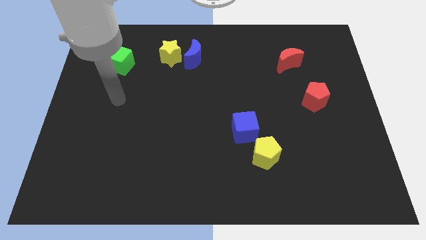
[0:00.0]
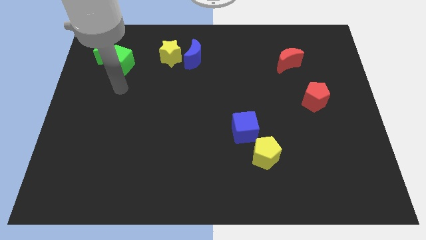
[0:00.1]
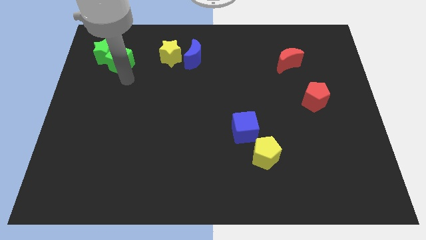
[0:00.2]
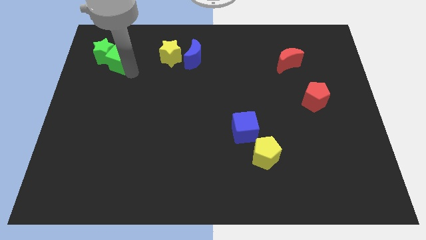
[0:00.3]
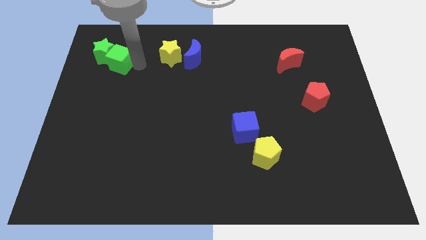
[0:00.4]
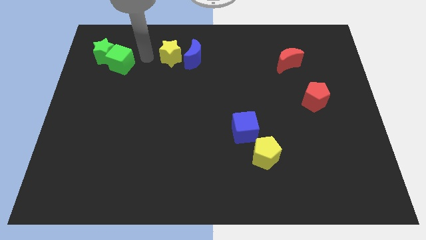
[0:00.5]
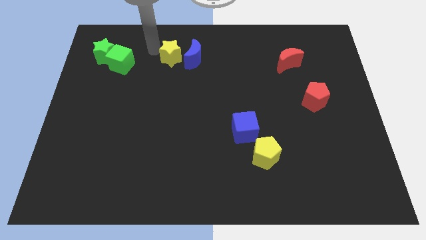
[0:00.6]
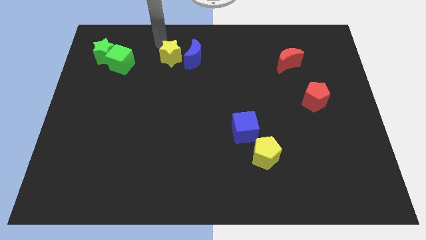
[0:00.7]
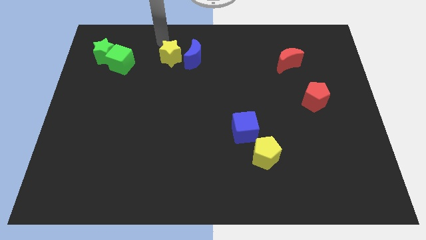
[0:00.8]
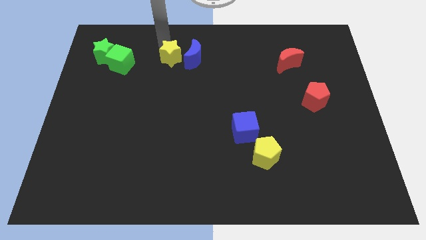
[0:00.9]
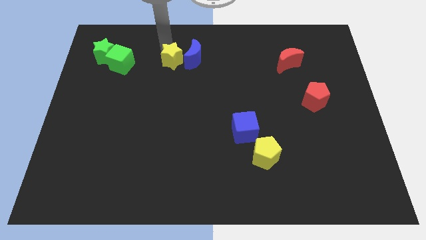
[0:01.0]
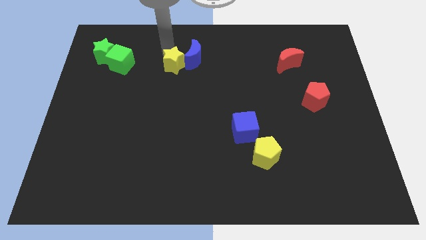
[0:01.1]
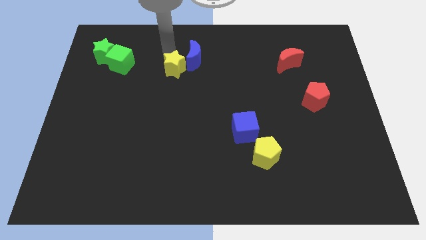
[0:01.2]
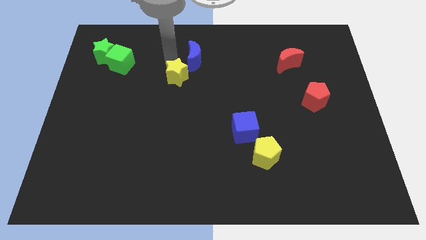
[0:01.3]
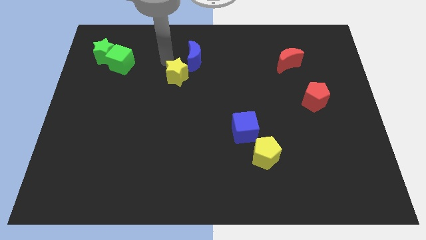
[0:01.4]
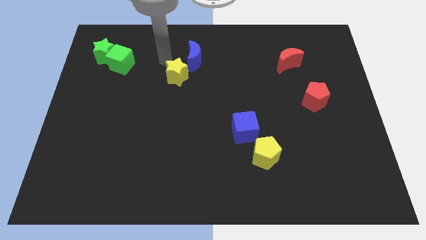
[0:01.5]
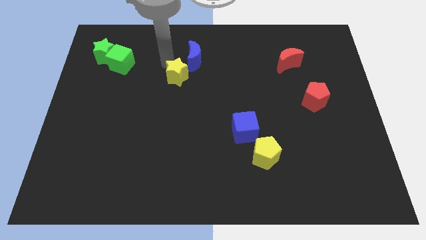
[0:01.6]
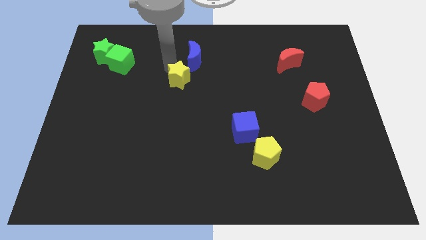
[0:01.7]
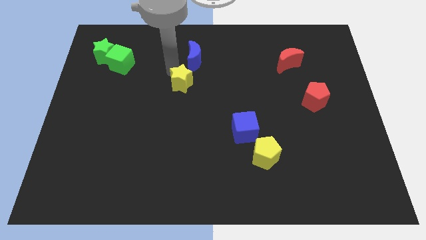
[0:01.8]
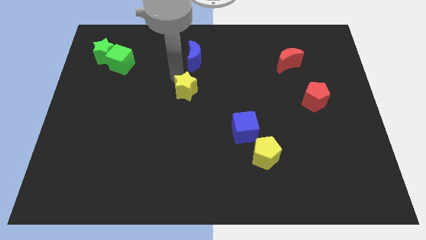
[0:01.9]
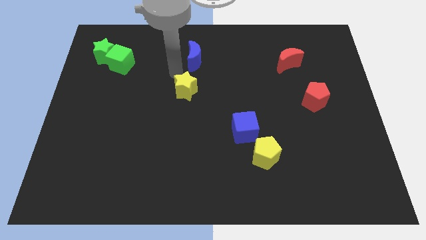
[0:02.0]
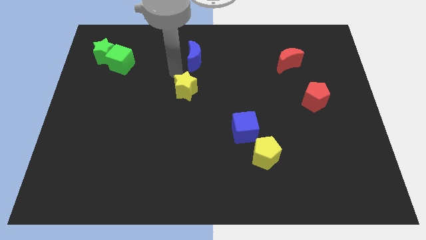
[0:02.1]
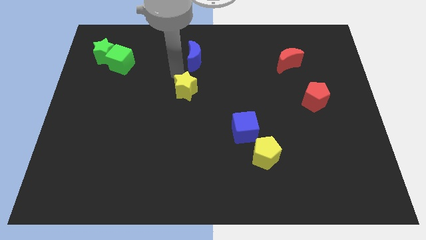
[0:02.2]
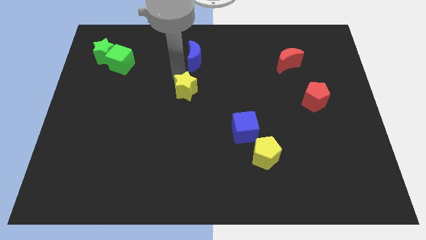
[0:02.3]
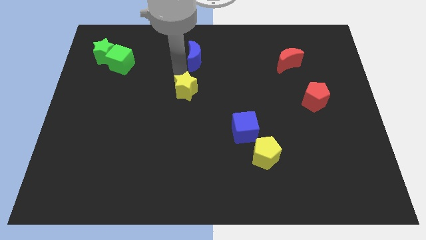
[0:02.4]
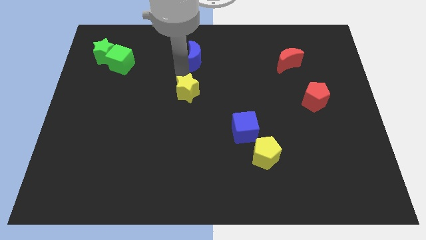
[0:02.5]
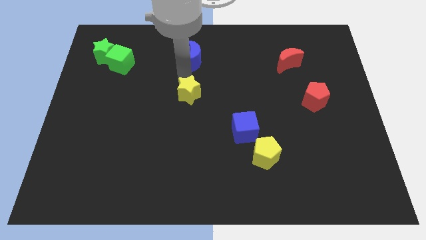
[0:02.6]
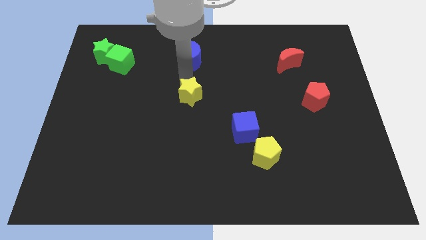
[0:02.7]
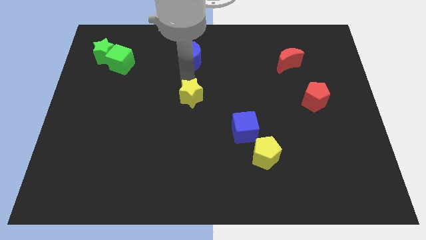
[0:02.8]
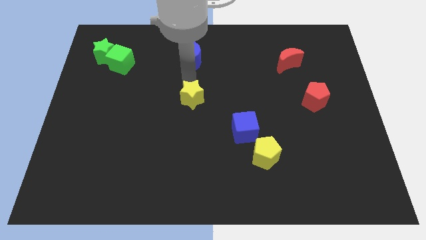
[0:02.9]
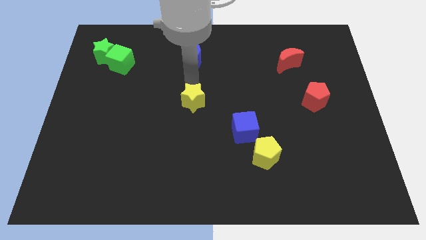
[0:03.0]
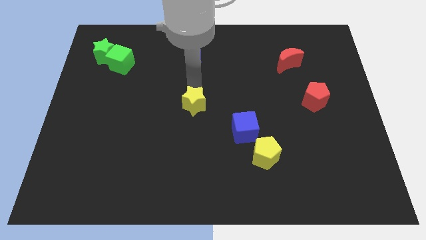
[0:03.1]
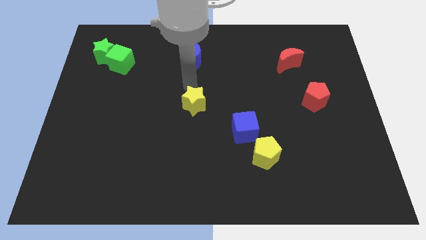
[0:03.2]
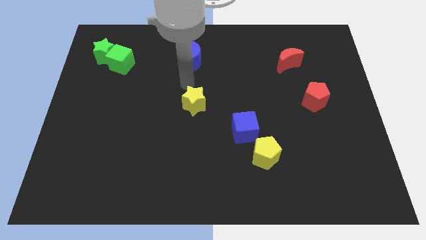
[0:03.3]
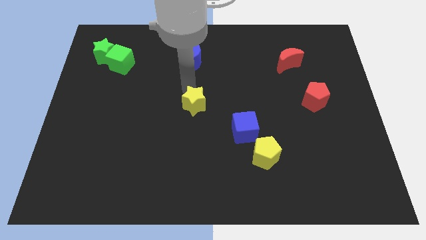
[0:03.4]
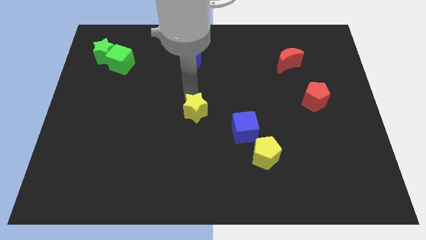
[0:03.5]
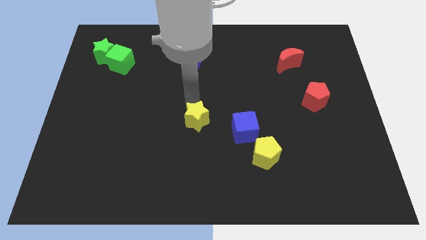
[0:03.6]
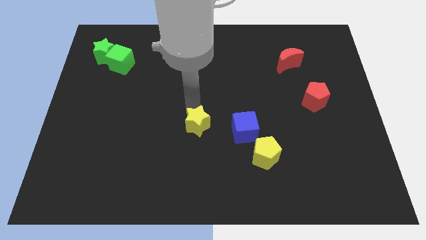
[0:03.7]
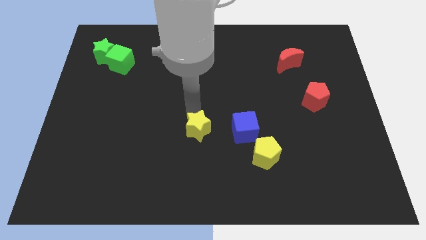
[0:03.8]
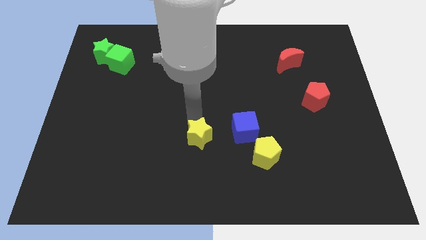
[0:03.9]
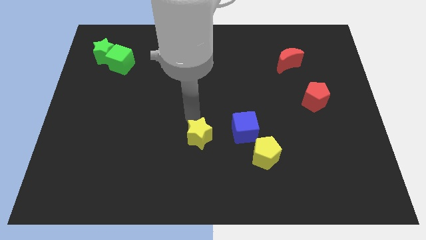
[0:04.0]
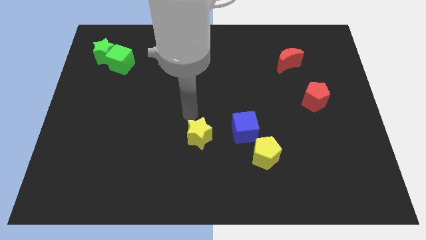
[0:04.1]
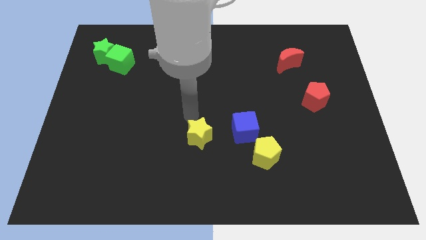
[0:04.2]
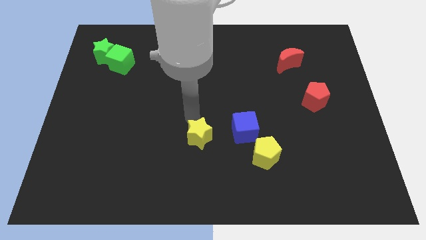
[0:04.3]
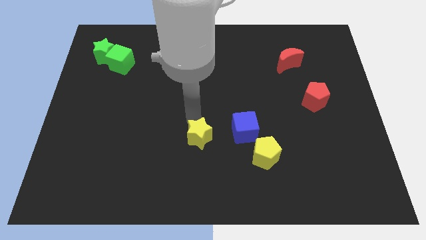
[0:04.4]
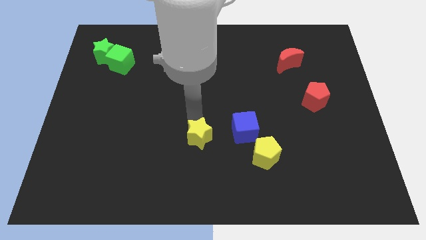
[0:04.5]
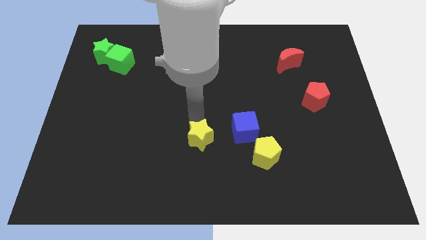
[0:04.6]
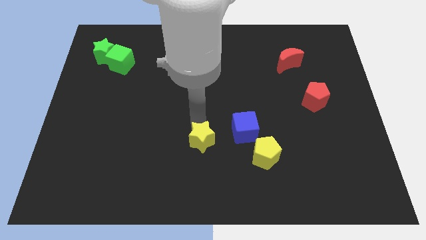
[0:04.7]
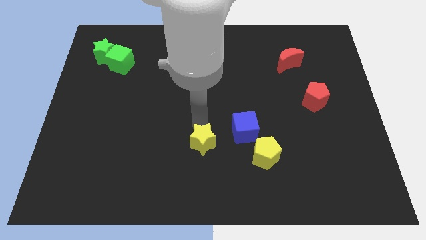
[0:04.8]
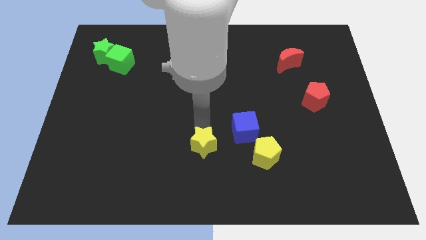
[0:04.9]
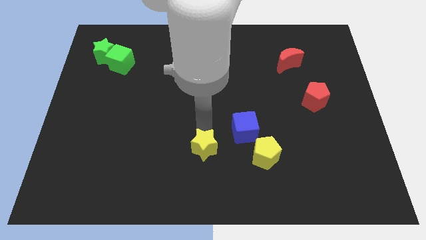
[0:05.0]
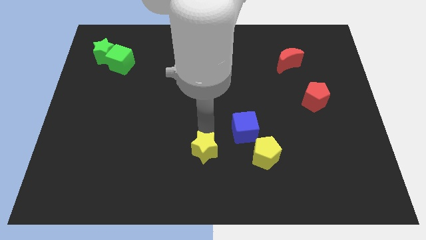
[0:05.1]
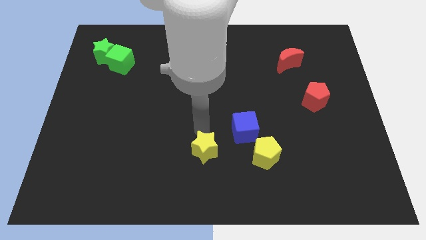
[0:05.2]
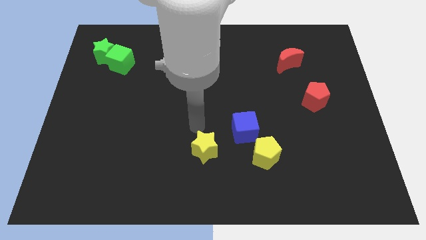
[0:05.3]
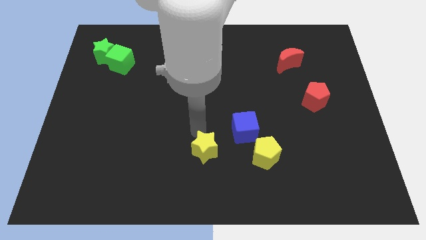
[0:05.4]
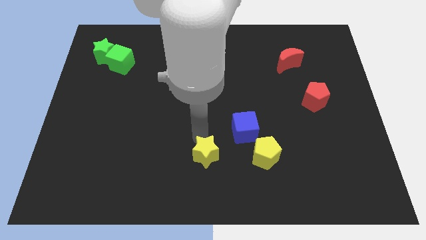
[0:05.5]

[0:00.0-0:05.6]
slide the yellow star to the bottom

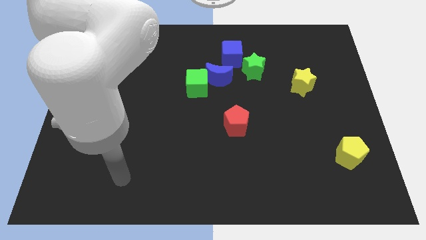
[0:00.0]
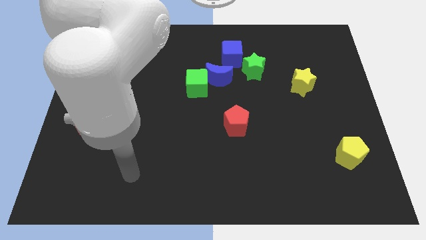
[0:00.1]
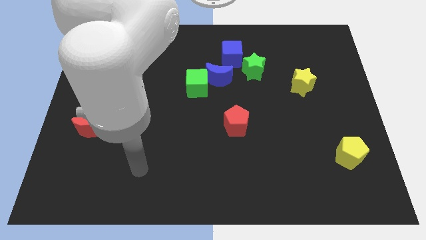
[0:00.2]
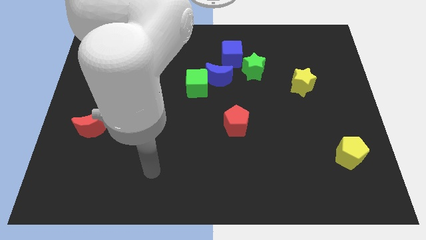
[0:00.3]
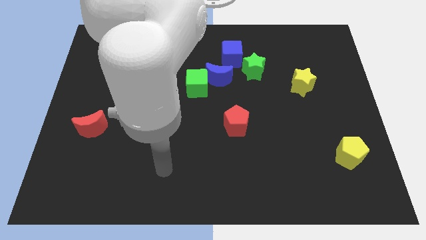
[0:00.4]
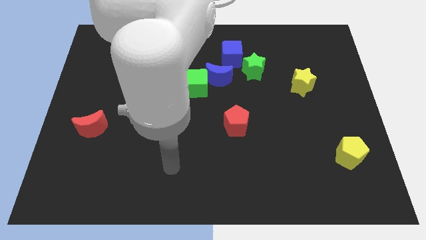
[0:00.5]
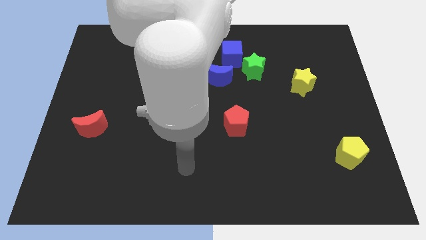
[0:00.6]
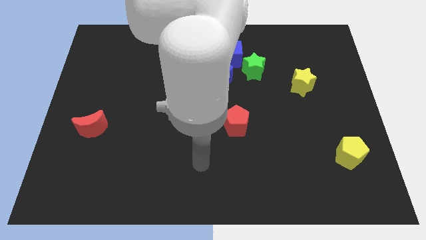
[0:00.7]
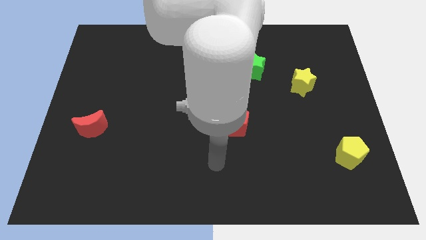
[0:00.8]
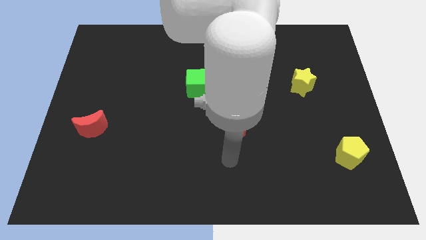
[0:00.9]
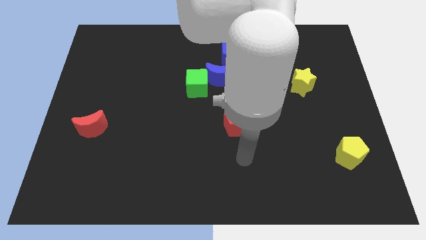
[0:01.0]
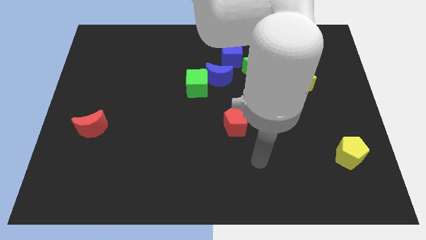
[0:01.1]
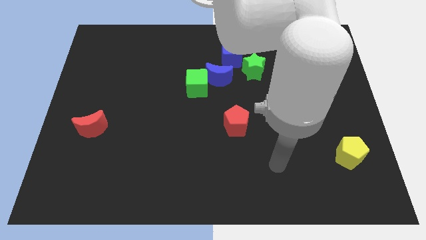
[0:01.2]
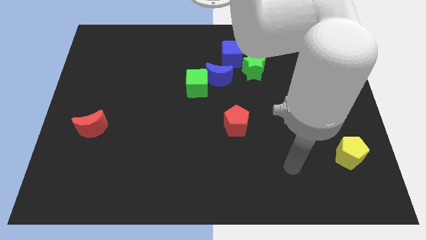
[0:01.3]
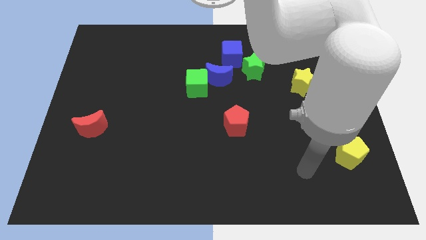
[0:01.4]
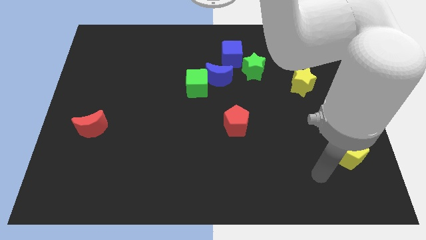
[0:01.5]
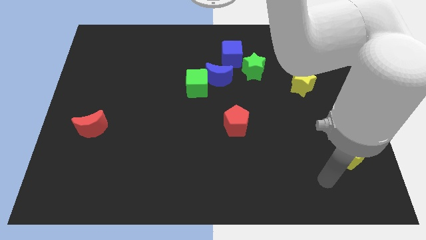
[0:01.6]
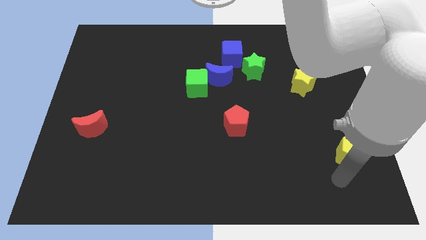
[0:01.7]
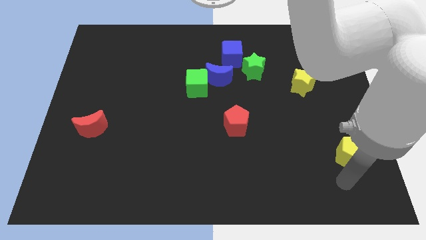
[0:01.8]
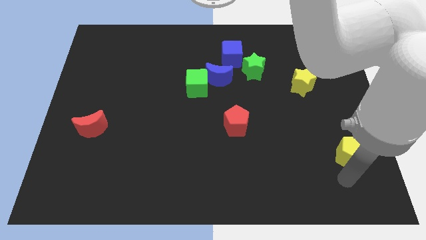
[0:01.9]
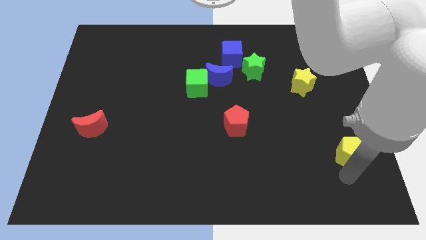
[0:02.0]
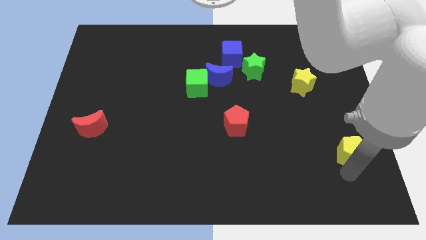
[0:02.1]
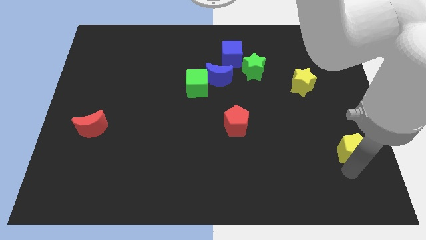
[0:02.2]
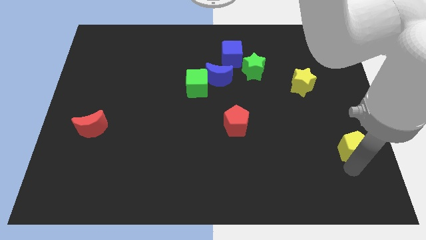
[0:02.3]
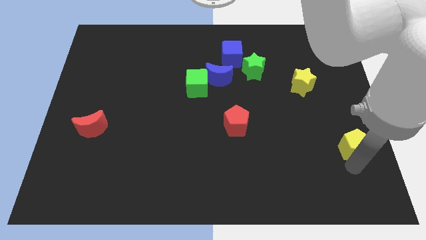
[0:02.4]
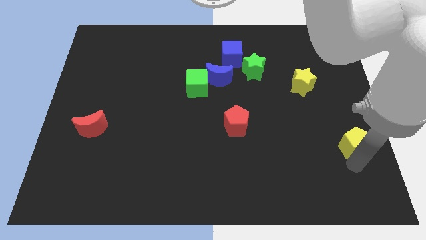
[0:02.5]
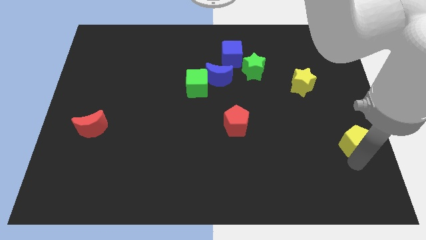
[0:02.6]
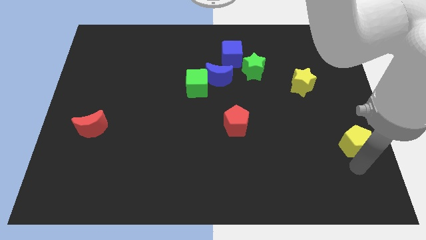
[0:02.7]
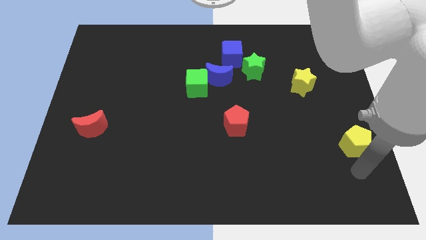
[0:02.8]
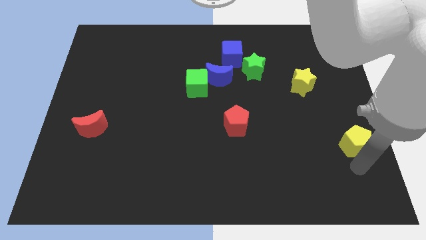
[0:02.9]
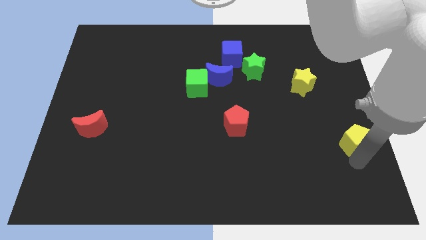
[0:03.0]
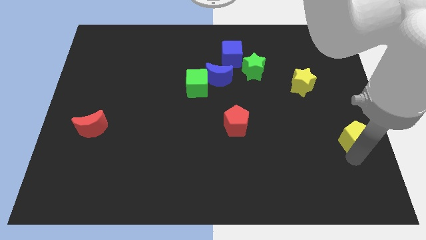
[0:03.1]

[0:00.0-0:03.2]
push the yellow pentagon to the right side
